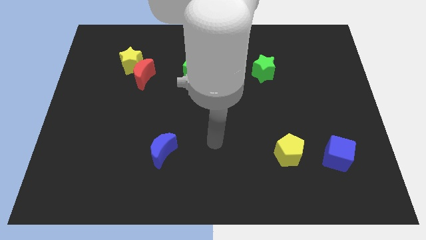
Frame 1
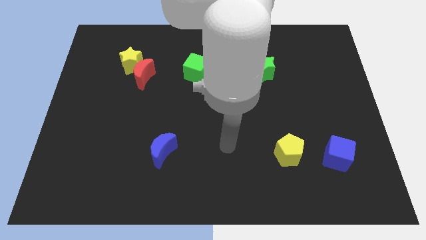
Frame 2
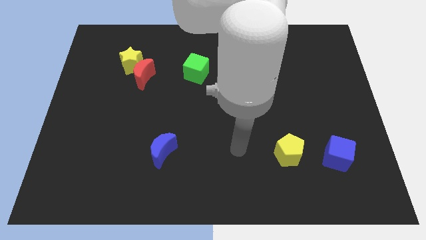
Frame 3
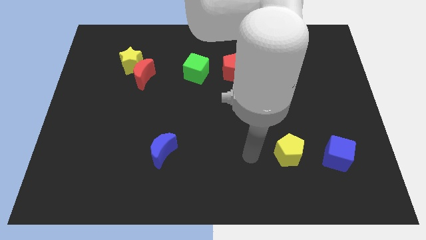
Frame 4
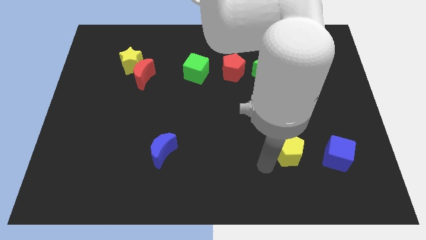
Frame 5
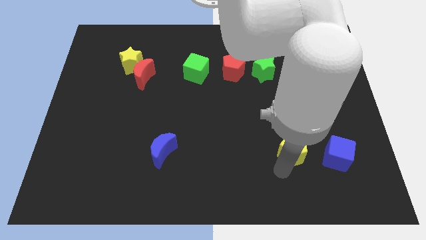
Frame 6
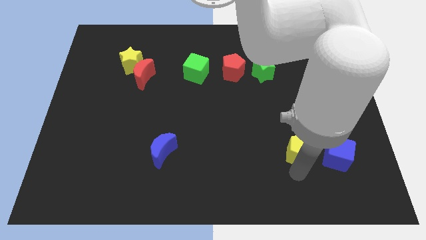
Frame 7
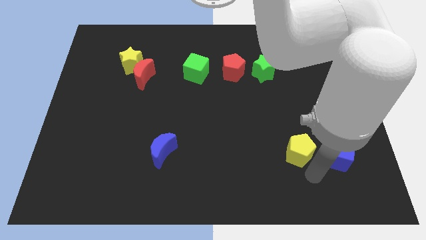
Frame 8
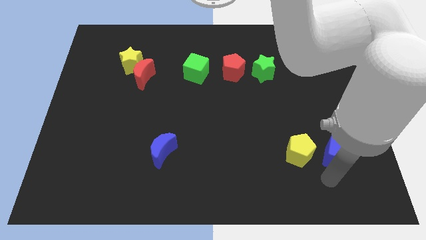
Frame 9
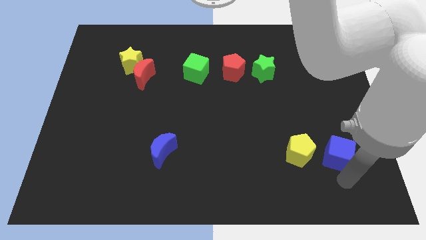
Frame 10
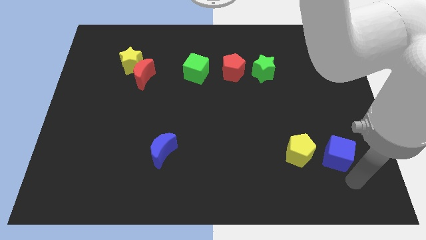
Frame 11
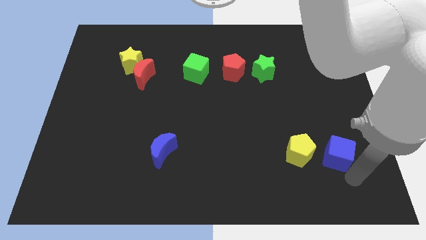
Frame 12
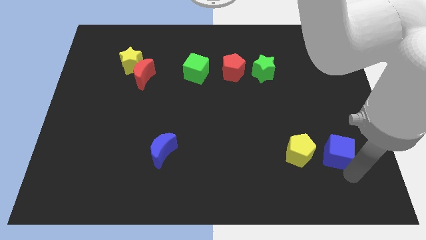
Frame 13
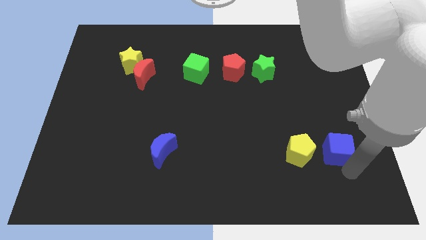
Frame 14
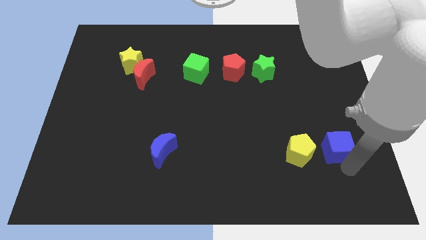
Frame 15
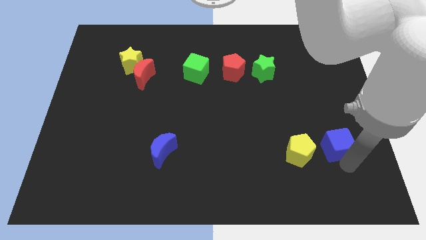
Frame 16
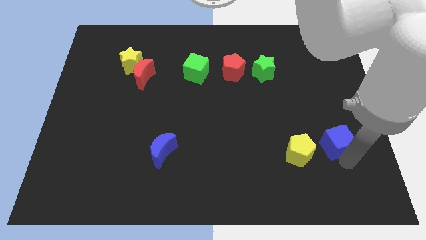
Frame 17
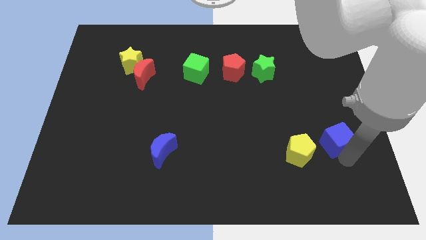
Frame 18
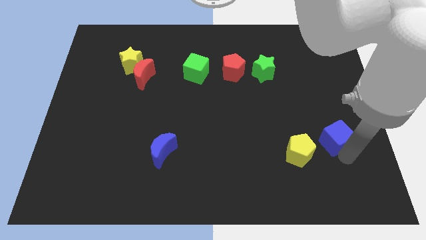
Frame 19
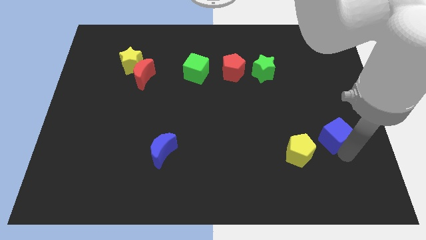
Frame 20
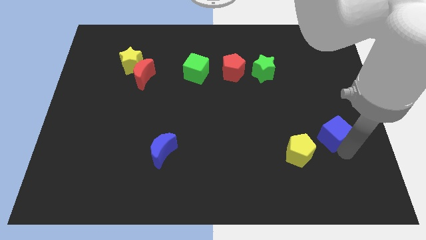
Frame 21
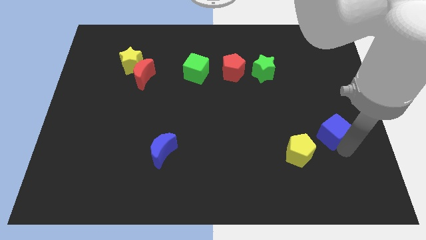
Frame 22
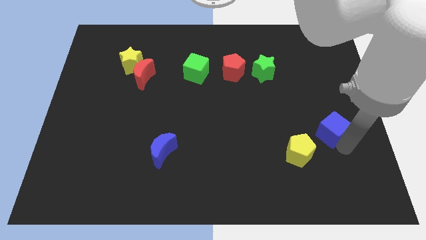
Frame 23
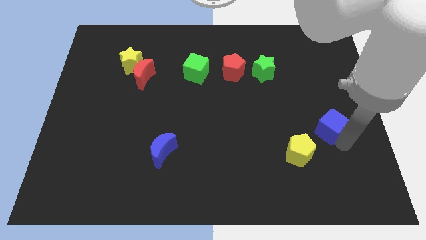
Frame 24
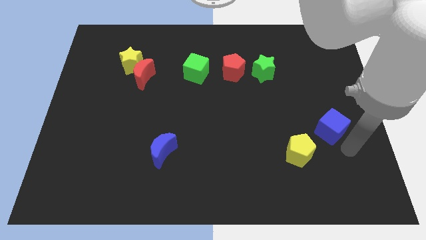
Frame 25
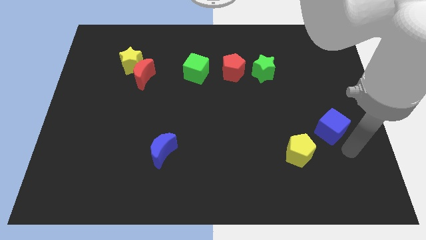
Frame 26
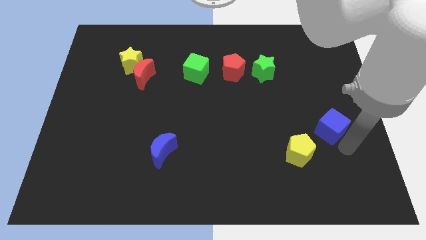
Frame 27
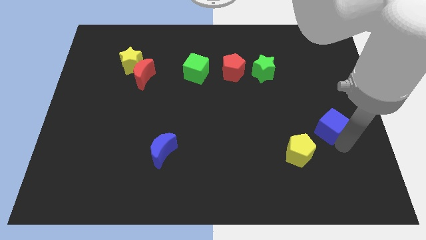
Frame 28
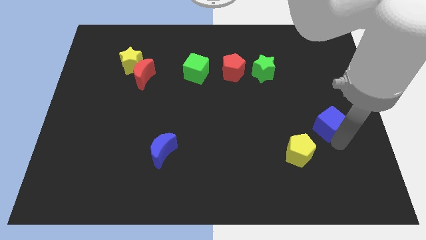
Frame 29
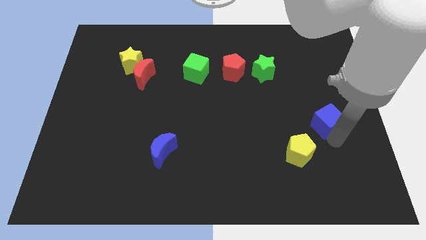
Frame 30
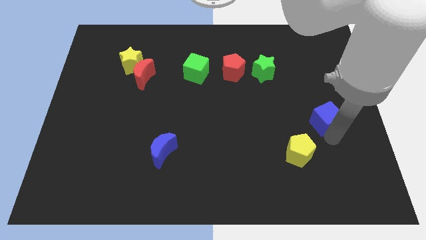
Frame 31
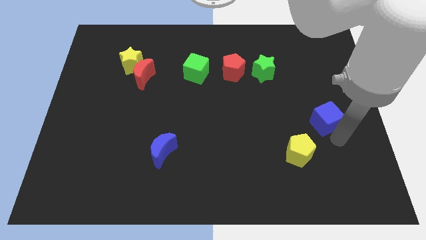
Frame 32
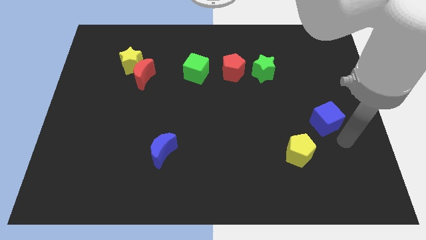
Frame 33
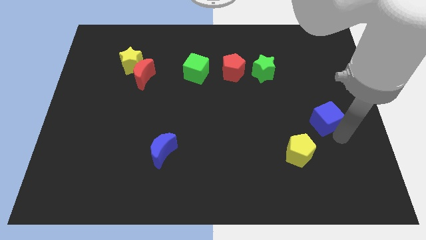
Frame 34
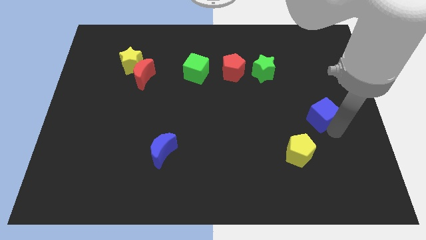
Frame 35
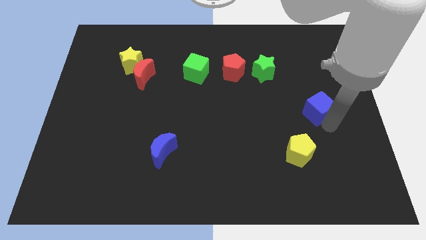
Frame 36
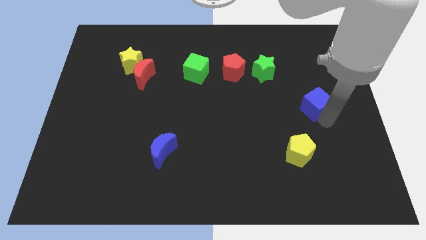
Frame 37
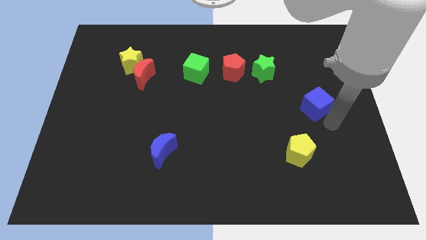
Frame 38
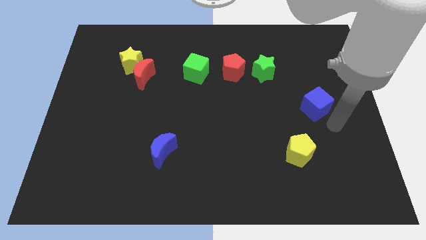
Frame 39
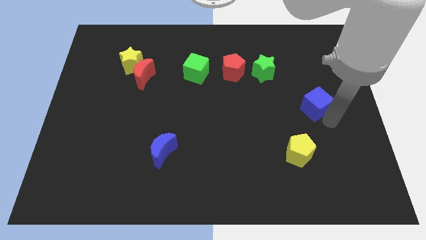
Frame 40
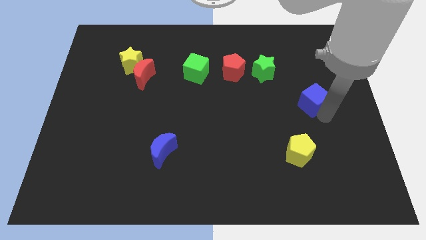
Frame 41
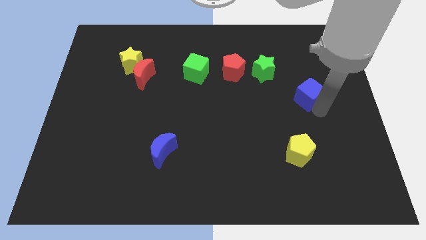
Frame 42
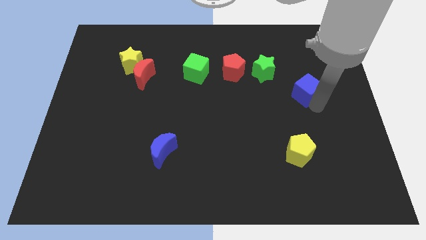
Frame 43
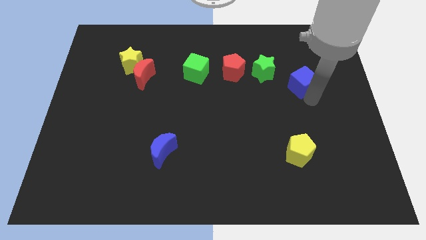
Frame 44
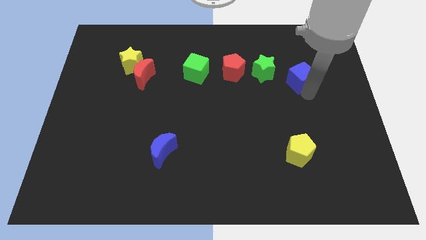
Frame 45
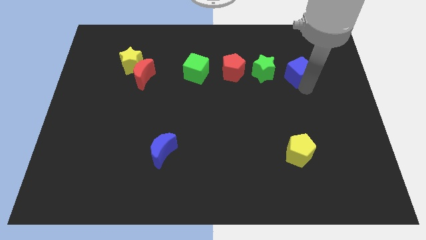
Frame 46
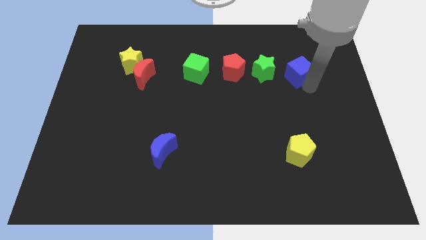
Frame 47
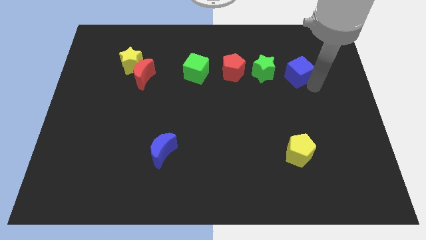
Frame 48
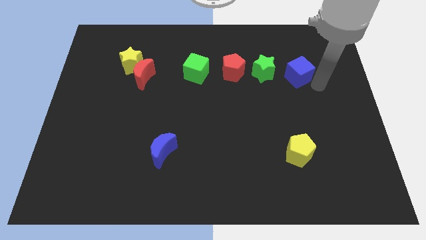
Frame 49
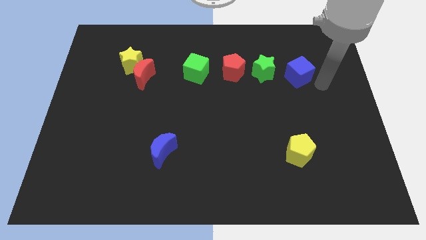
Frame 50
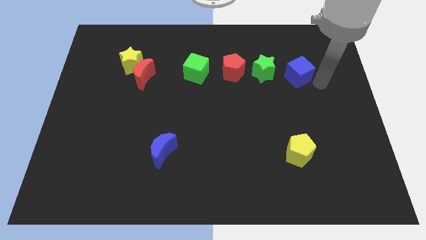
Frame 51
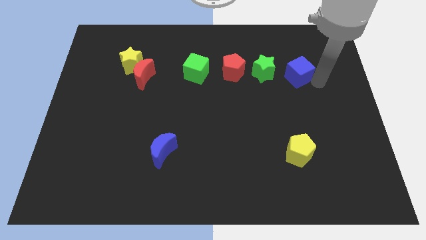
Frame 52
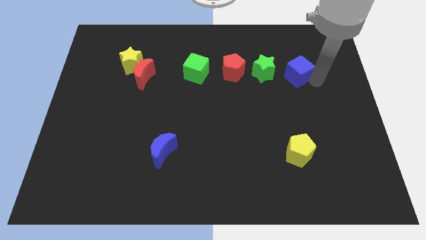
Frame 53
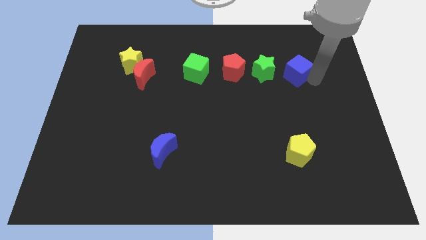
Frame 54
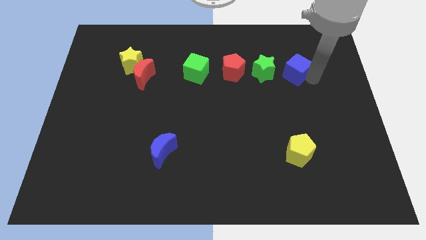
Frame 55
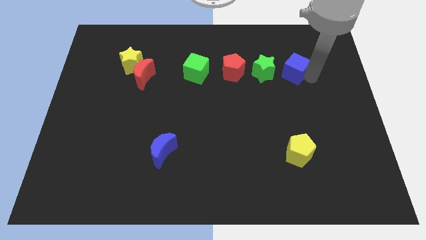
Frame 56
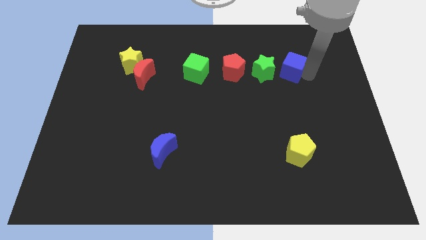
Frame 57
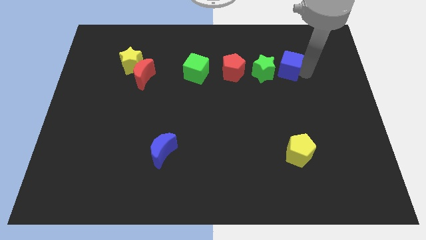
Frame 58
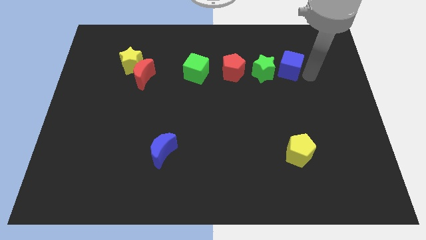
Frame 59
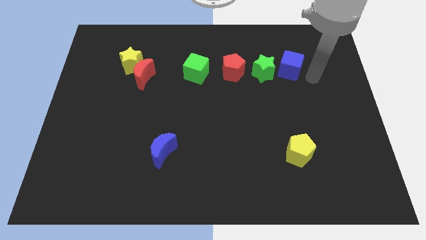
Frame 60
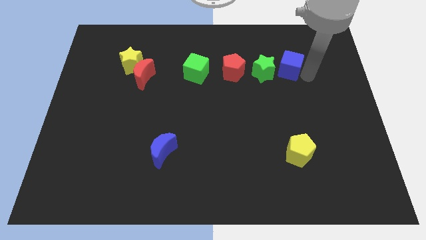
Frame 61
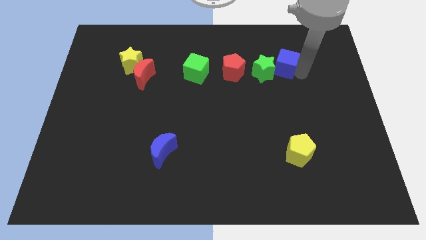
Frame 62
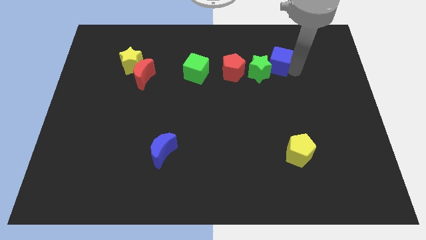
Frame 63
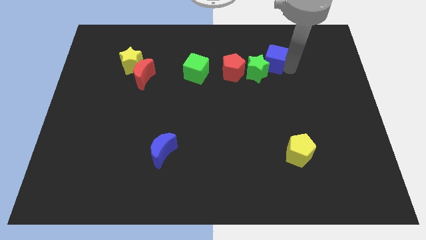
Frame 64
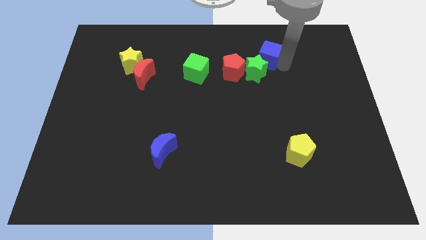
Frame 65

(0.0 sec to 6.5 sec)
push the blue cube to the top right side of the red pentagon

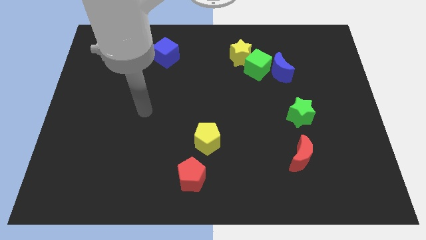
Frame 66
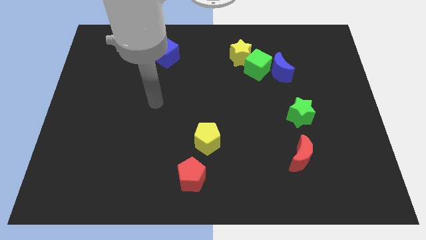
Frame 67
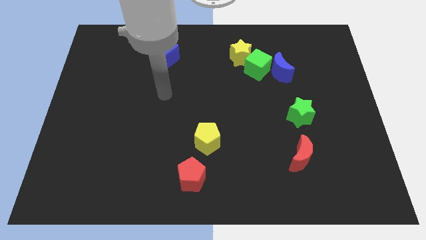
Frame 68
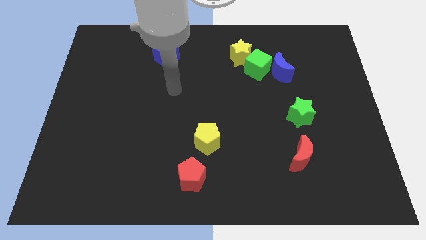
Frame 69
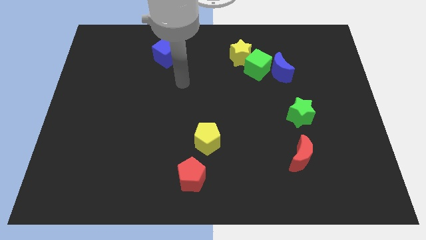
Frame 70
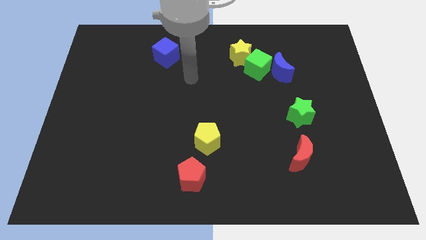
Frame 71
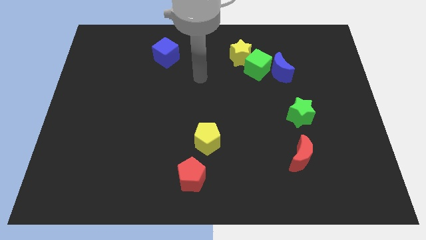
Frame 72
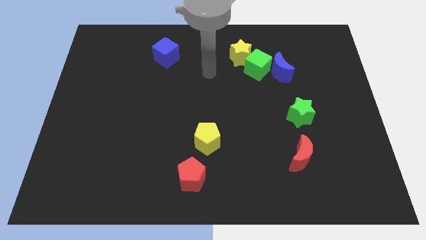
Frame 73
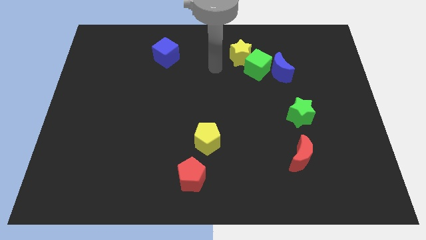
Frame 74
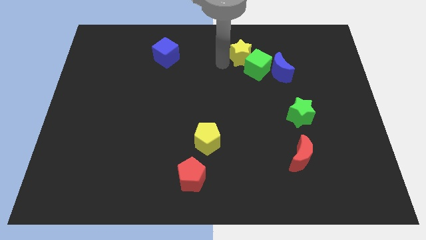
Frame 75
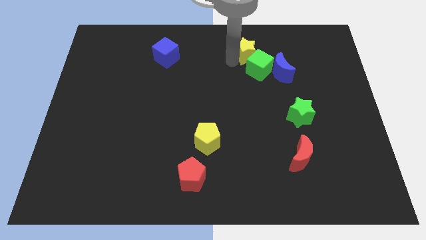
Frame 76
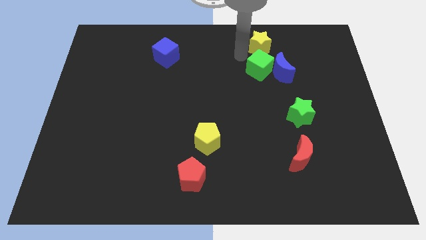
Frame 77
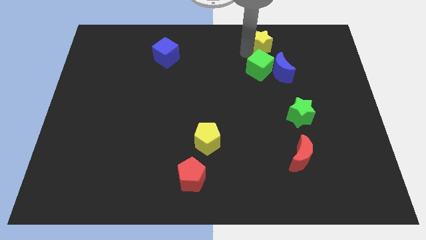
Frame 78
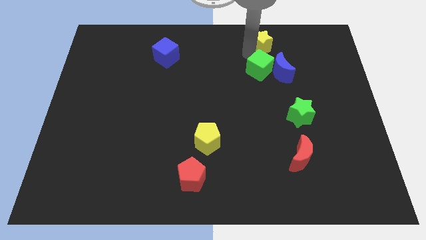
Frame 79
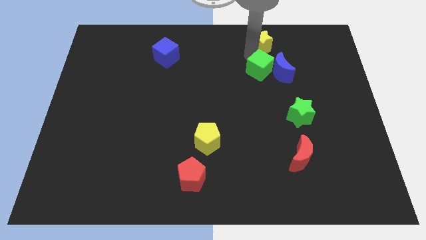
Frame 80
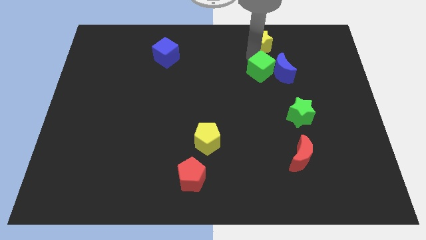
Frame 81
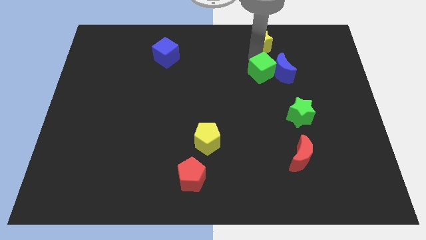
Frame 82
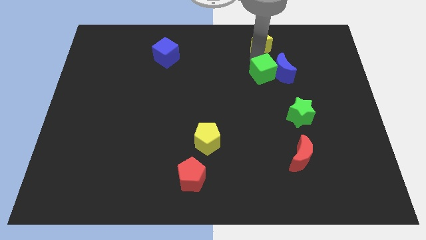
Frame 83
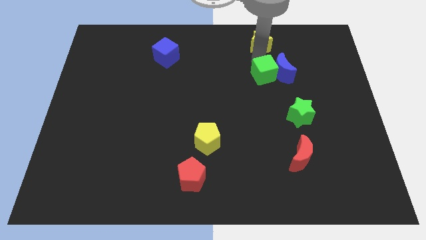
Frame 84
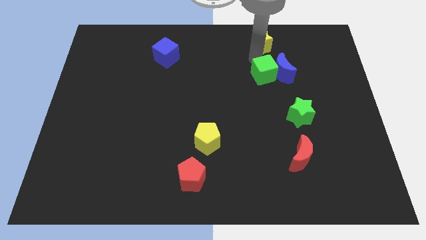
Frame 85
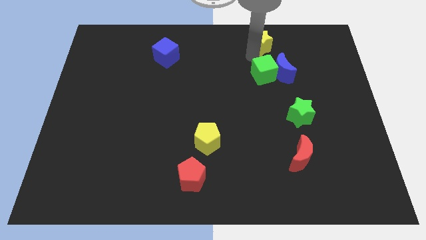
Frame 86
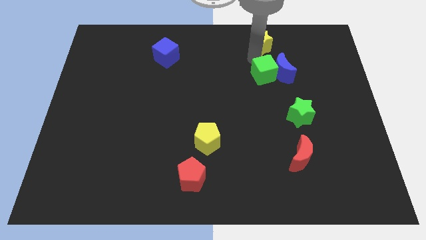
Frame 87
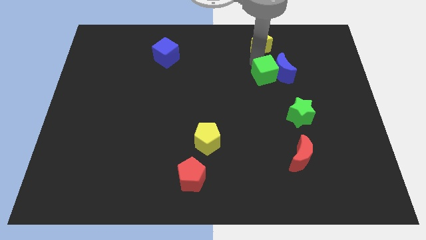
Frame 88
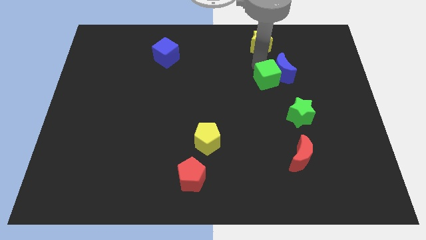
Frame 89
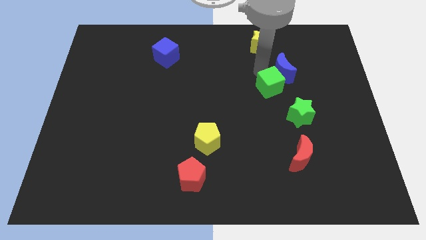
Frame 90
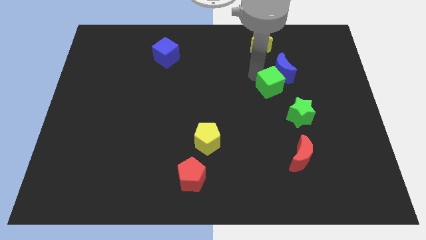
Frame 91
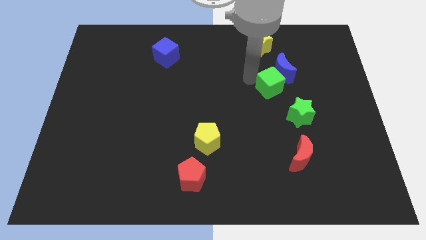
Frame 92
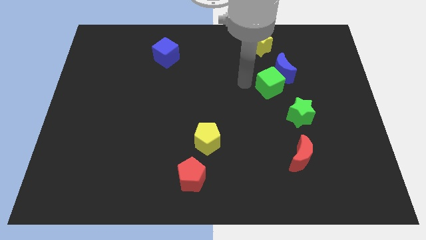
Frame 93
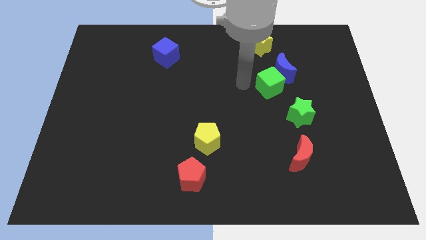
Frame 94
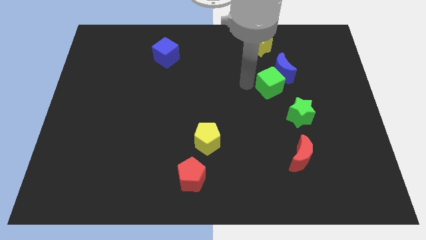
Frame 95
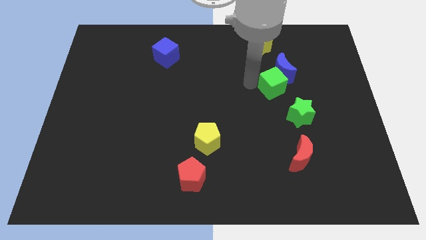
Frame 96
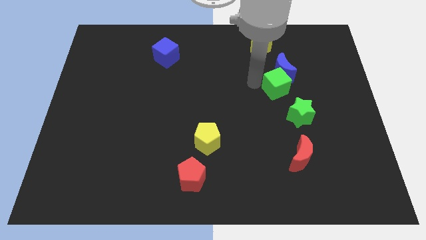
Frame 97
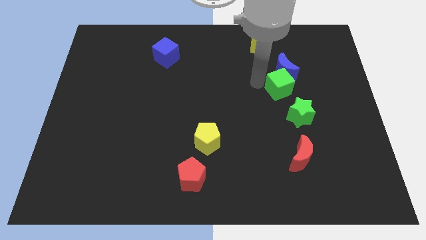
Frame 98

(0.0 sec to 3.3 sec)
put the green cube to the bottom right of the blue moon
